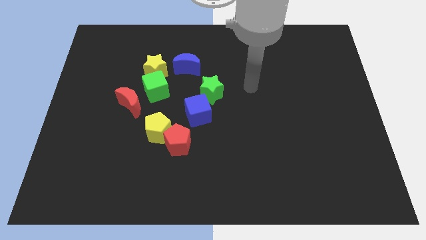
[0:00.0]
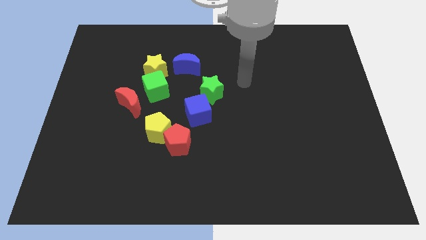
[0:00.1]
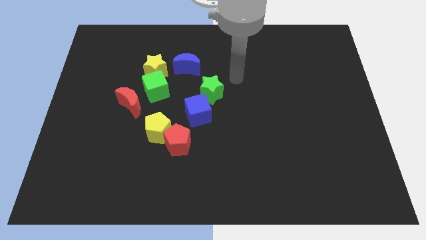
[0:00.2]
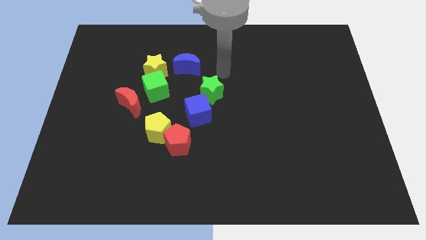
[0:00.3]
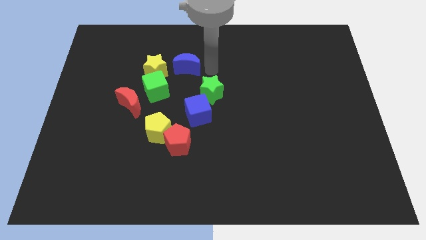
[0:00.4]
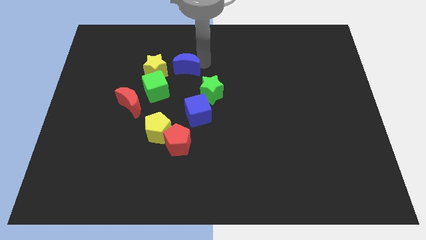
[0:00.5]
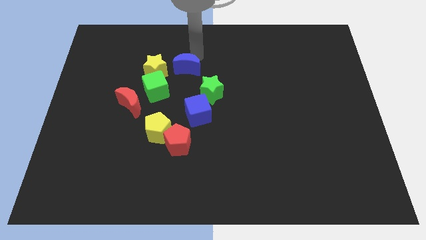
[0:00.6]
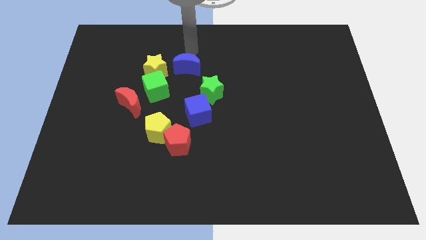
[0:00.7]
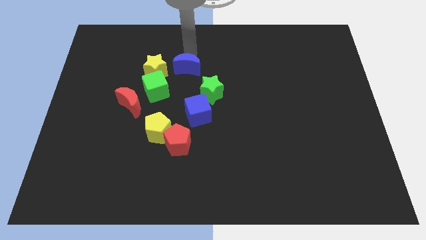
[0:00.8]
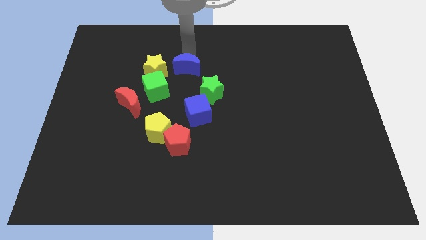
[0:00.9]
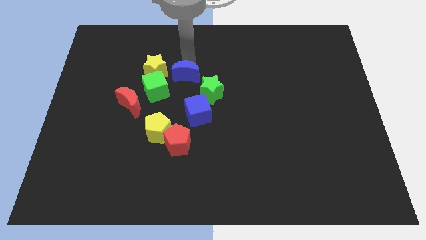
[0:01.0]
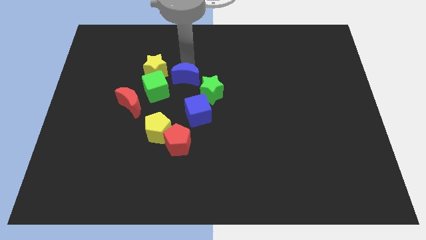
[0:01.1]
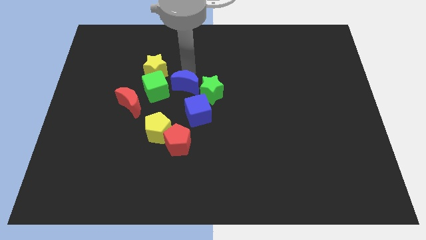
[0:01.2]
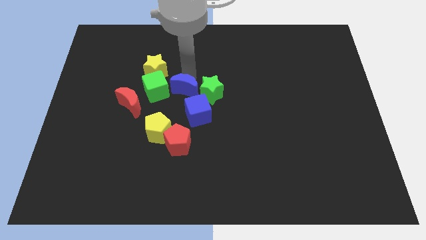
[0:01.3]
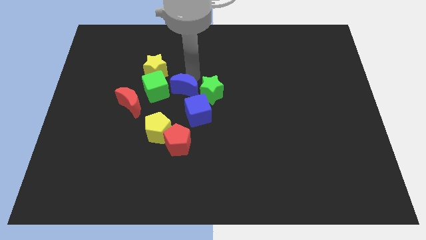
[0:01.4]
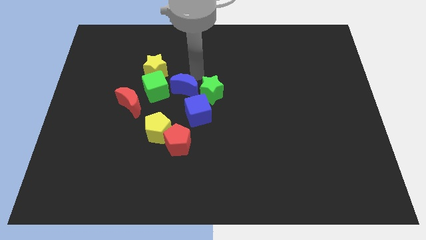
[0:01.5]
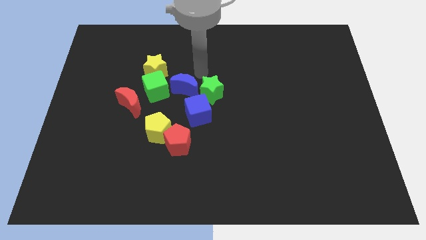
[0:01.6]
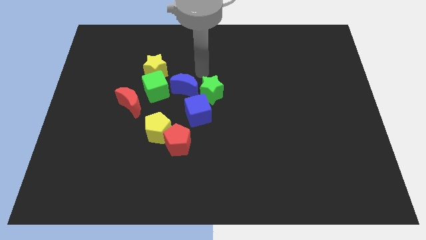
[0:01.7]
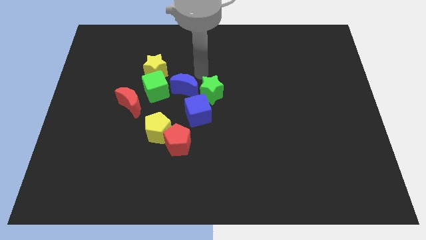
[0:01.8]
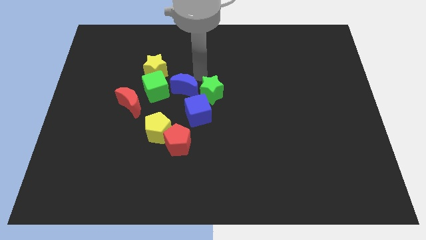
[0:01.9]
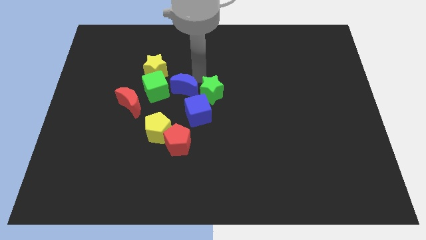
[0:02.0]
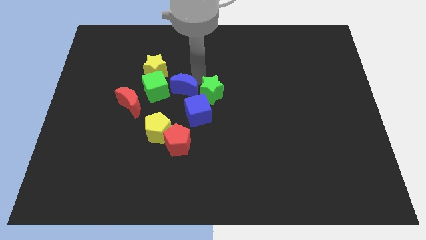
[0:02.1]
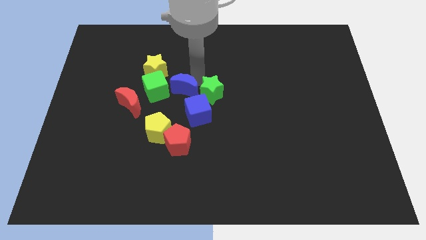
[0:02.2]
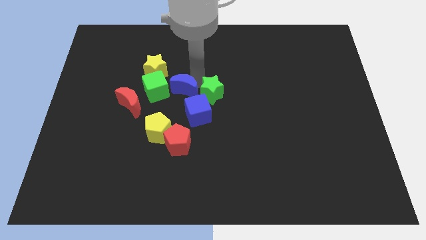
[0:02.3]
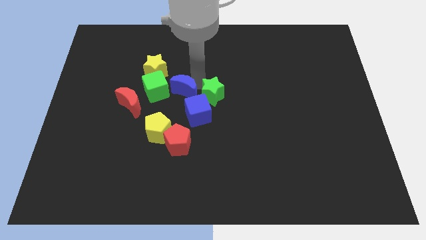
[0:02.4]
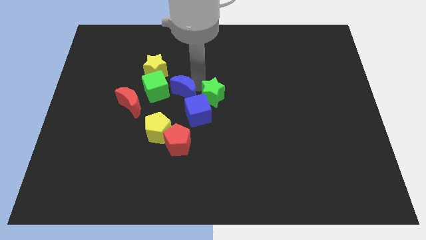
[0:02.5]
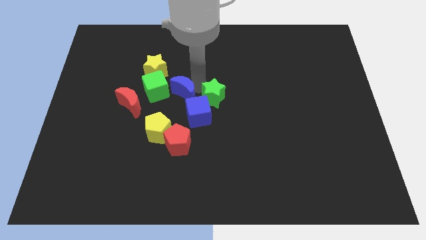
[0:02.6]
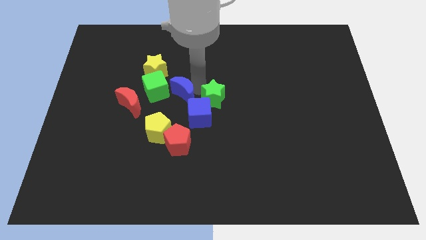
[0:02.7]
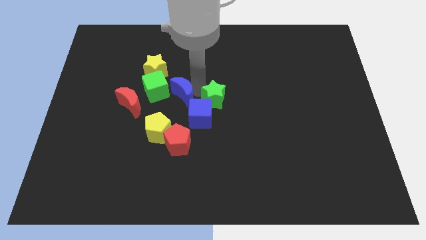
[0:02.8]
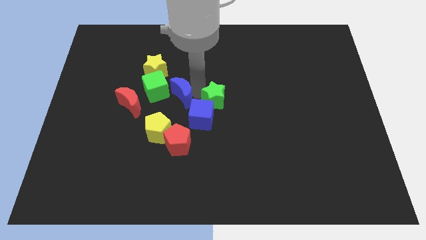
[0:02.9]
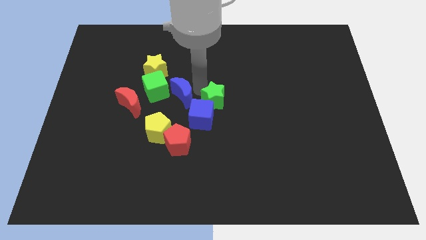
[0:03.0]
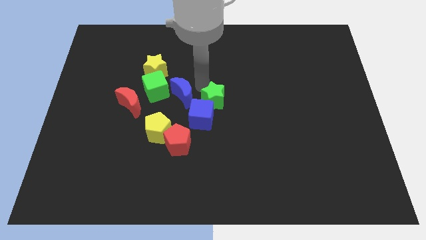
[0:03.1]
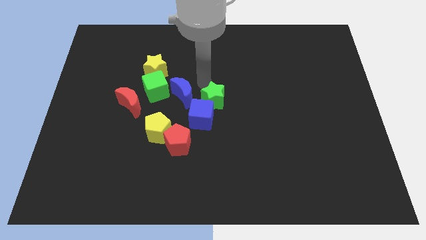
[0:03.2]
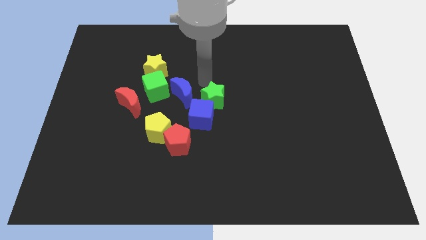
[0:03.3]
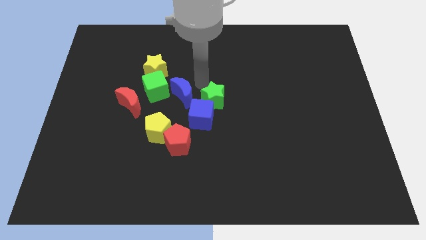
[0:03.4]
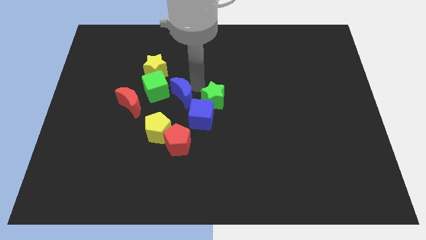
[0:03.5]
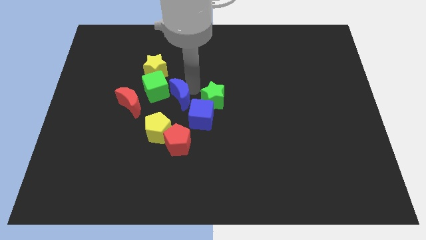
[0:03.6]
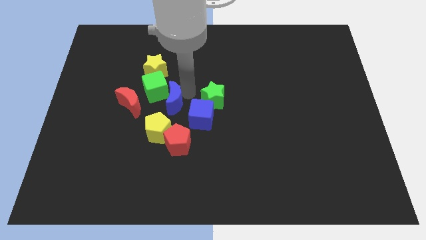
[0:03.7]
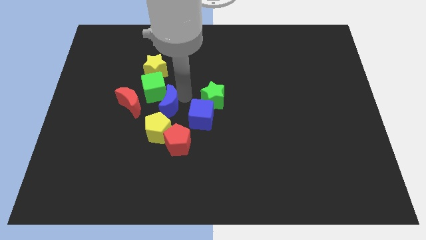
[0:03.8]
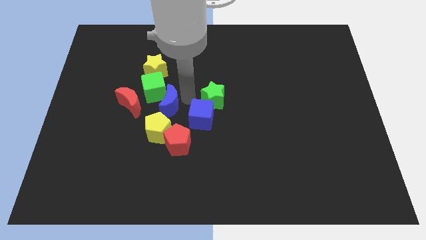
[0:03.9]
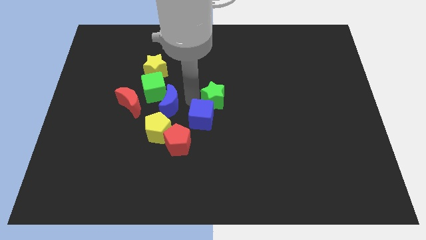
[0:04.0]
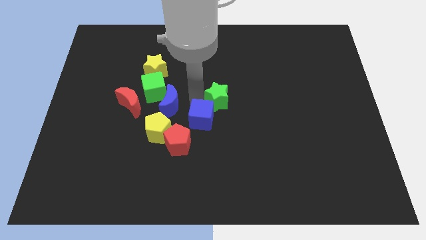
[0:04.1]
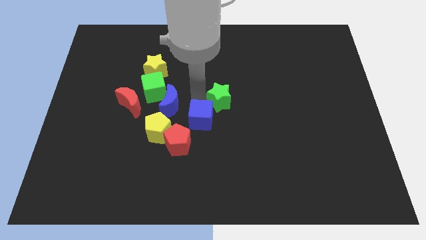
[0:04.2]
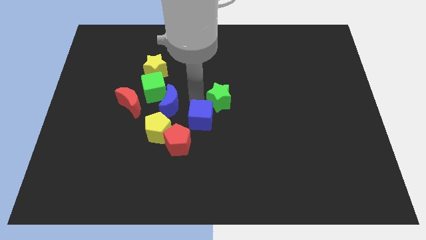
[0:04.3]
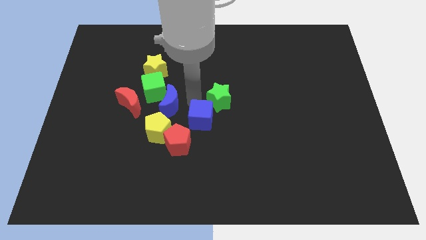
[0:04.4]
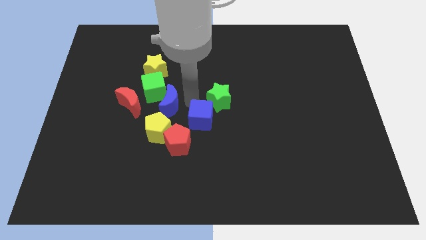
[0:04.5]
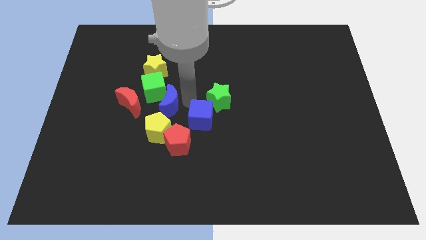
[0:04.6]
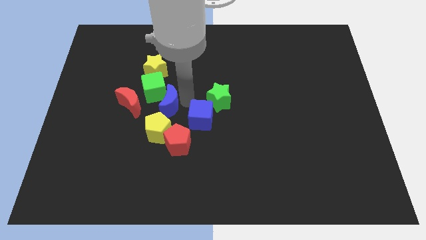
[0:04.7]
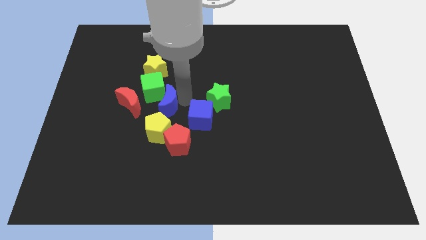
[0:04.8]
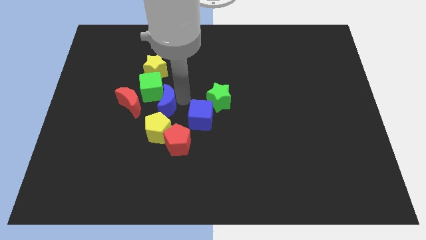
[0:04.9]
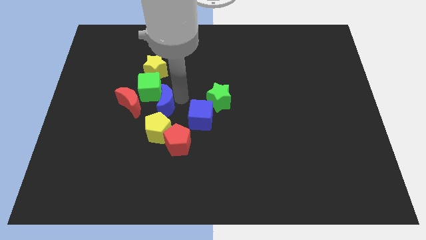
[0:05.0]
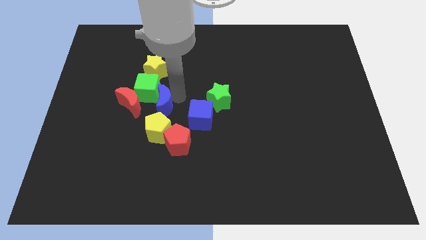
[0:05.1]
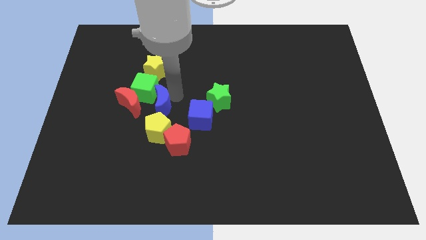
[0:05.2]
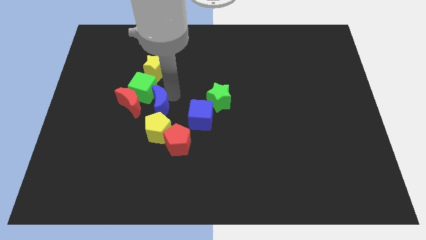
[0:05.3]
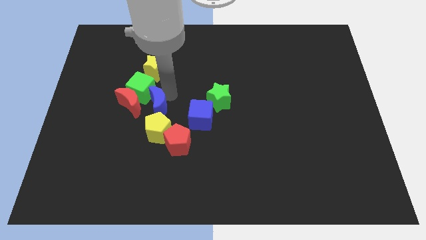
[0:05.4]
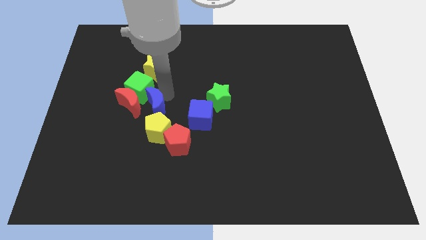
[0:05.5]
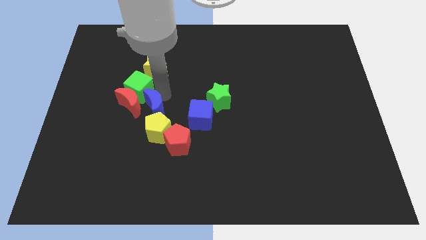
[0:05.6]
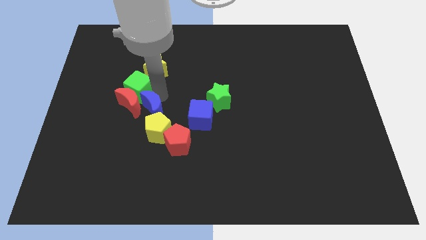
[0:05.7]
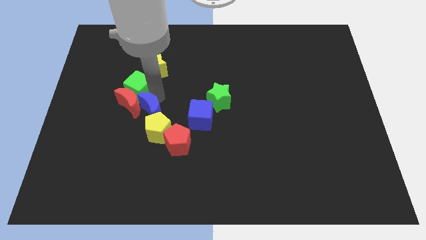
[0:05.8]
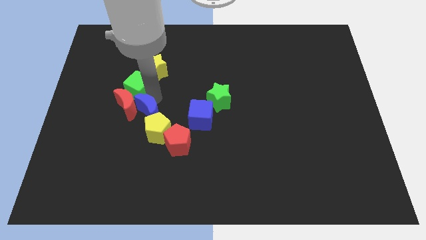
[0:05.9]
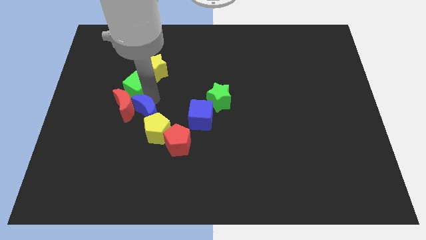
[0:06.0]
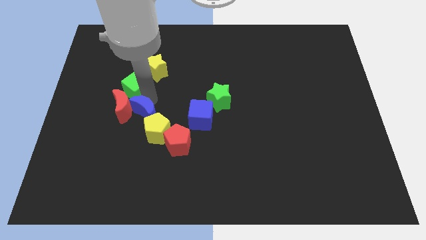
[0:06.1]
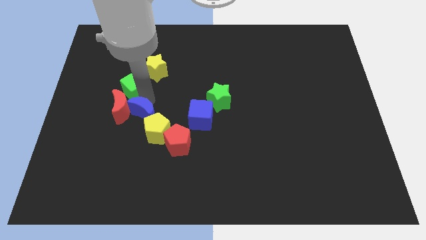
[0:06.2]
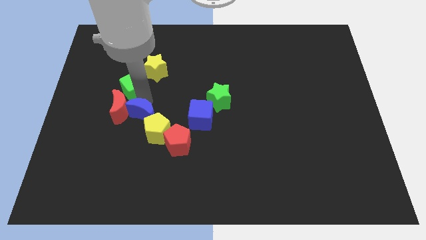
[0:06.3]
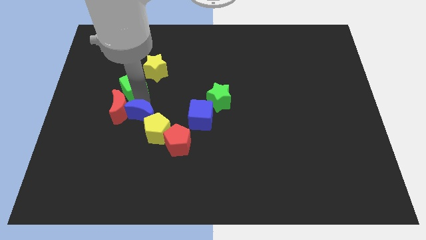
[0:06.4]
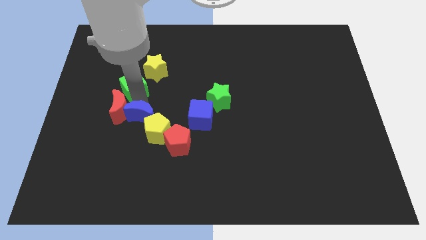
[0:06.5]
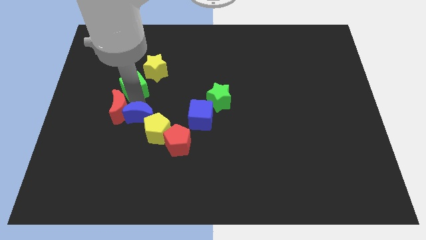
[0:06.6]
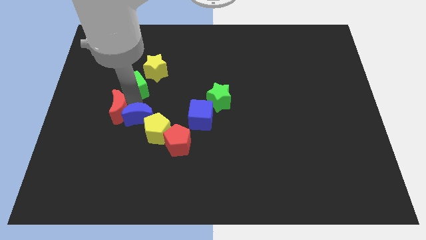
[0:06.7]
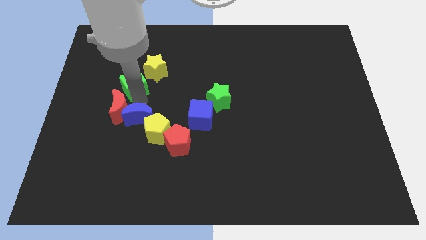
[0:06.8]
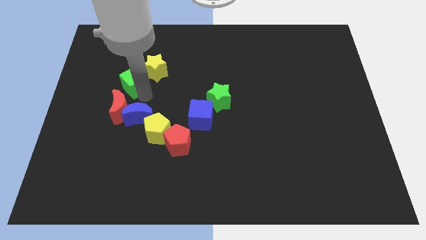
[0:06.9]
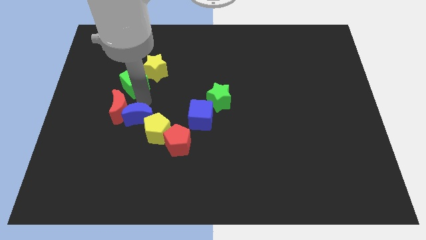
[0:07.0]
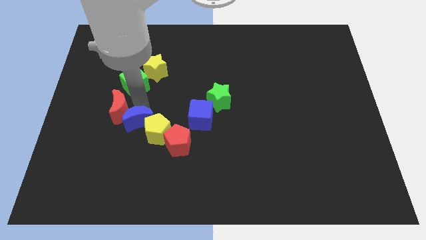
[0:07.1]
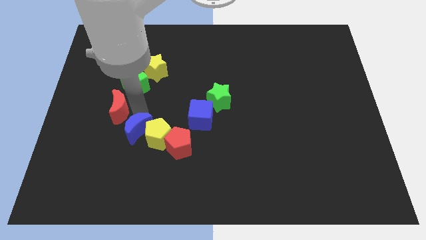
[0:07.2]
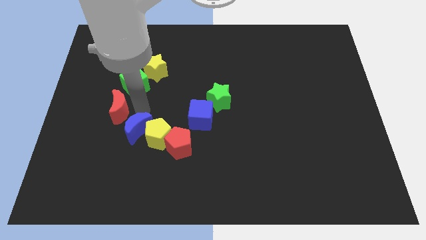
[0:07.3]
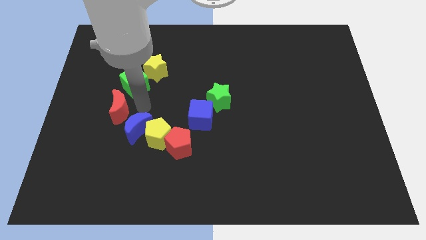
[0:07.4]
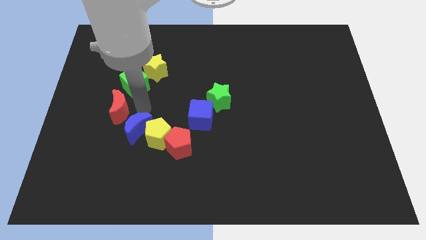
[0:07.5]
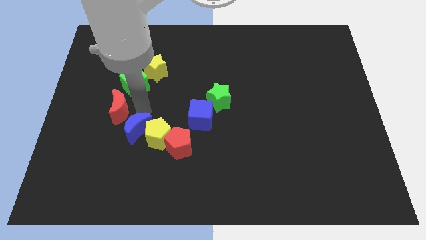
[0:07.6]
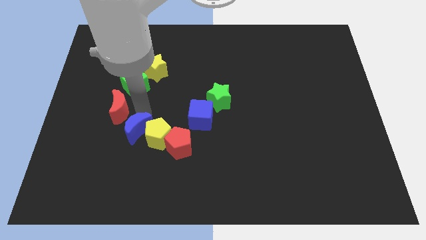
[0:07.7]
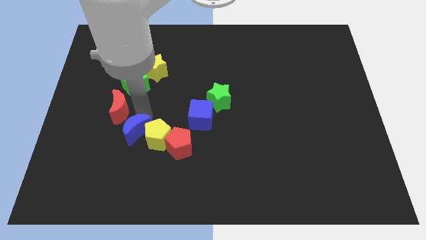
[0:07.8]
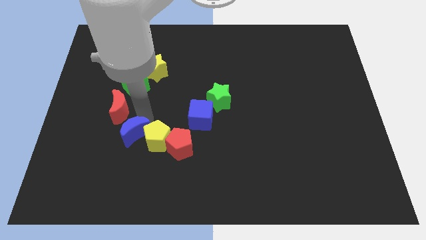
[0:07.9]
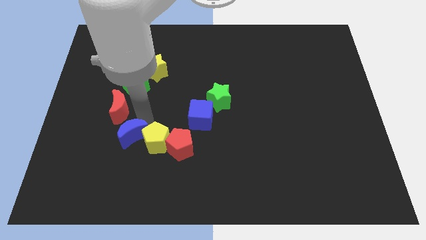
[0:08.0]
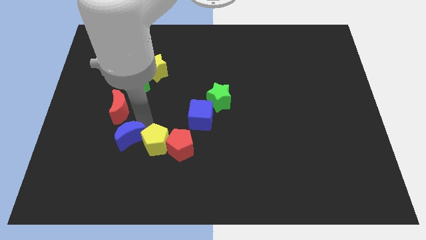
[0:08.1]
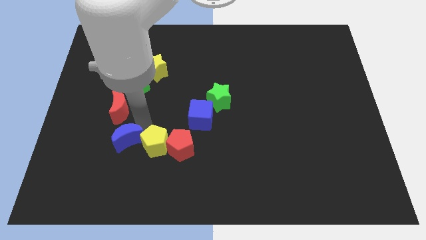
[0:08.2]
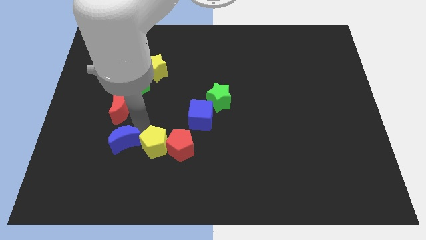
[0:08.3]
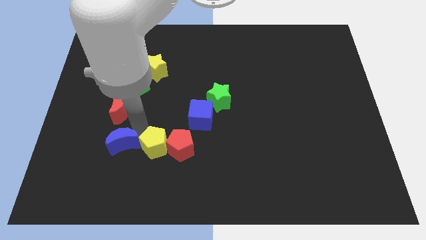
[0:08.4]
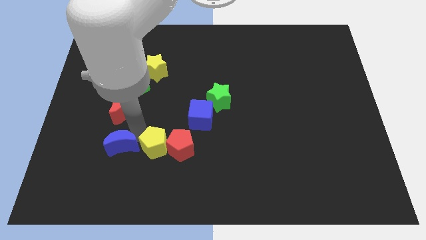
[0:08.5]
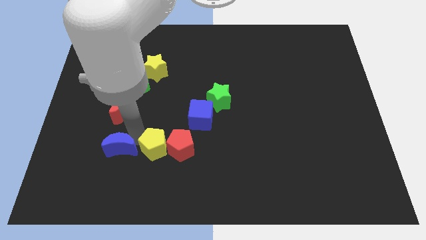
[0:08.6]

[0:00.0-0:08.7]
put the blue moon to the bottom left of the yellow pentagon
